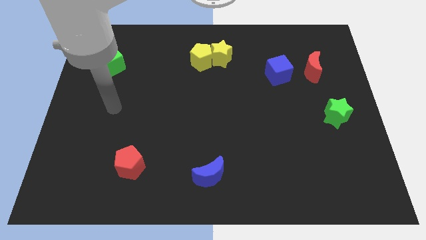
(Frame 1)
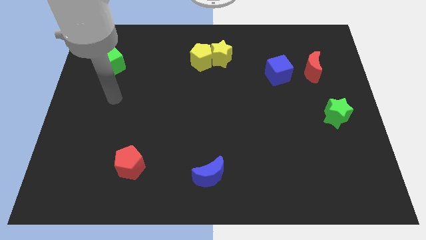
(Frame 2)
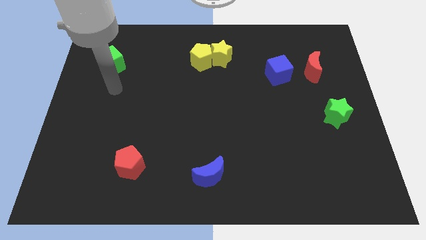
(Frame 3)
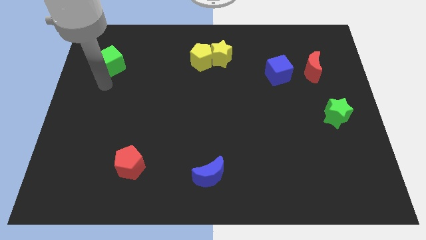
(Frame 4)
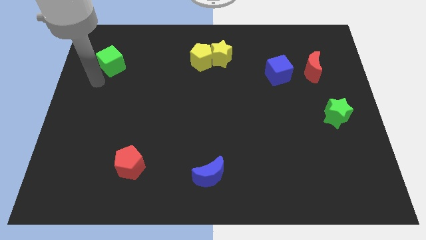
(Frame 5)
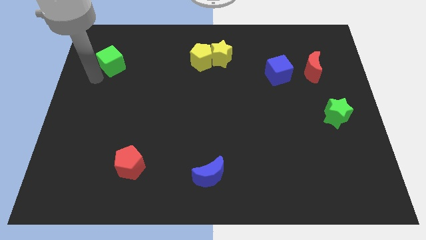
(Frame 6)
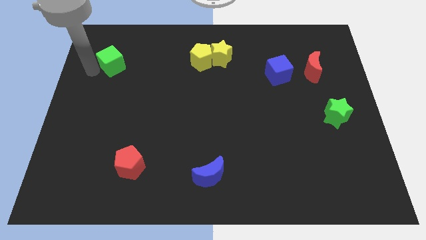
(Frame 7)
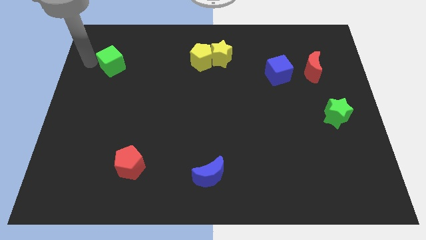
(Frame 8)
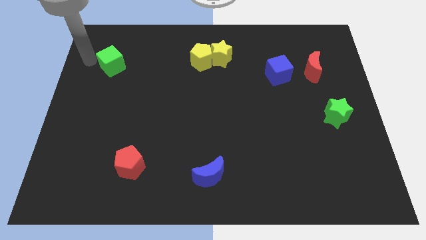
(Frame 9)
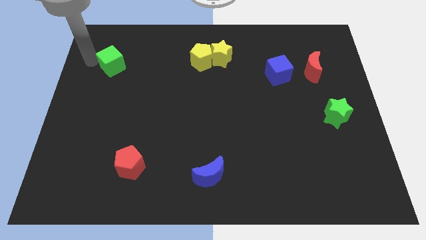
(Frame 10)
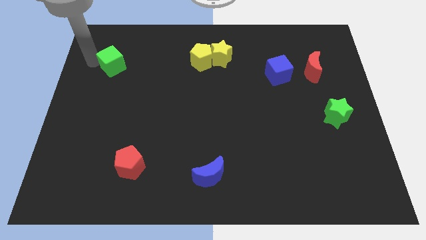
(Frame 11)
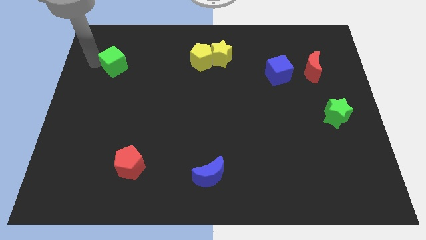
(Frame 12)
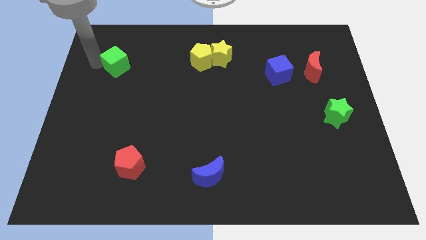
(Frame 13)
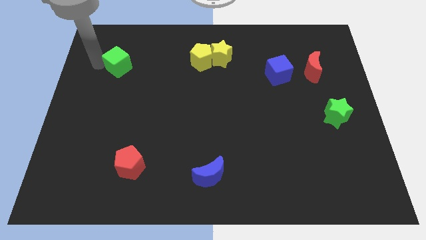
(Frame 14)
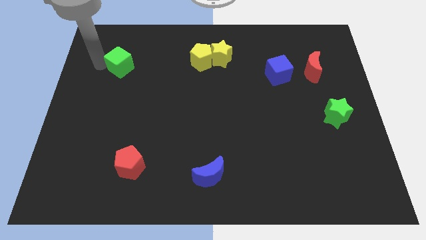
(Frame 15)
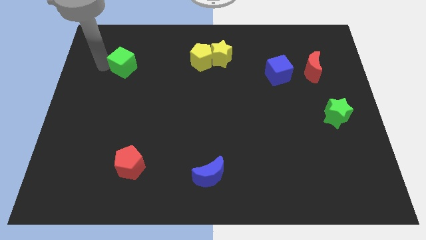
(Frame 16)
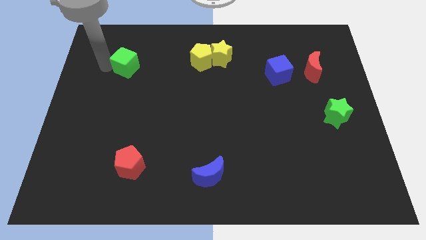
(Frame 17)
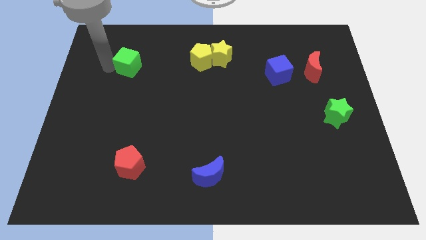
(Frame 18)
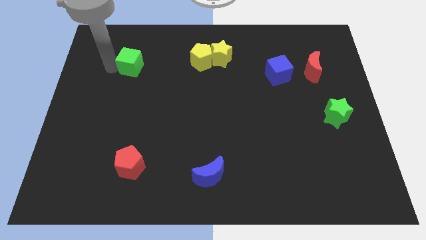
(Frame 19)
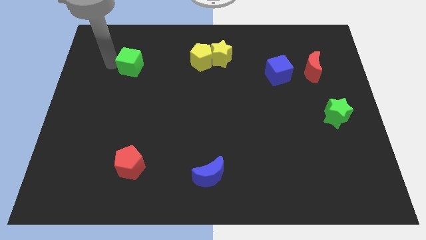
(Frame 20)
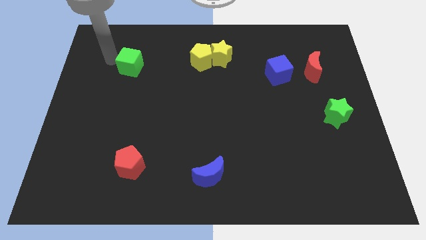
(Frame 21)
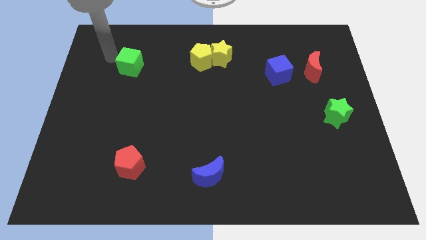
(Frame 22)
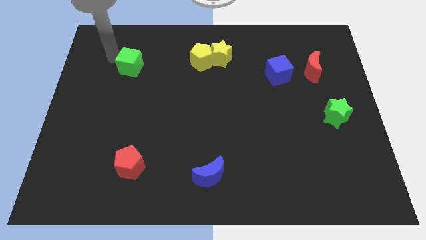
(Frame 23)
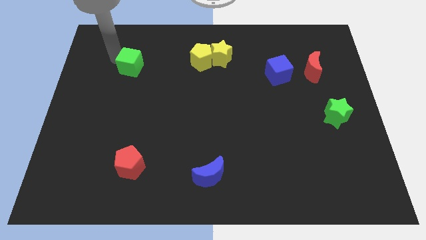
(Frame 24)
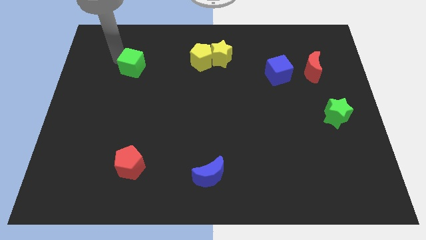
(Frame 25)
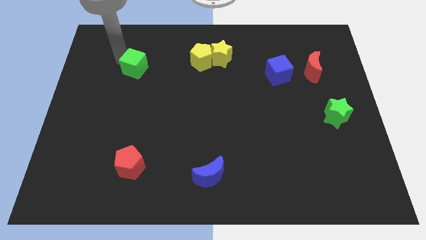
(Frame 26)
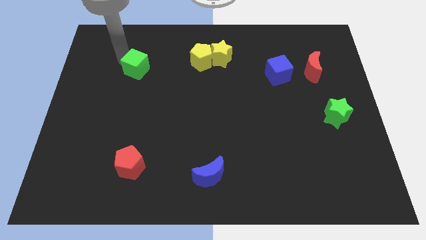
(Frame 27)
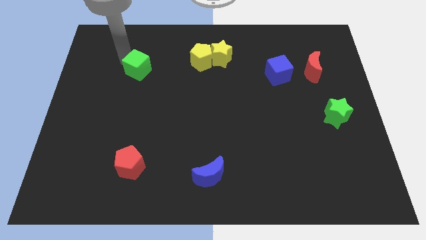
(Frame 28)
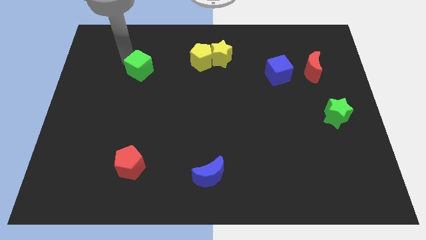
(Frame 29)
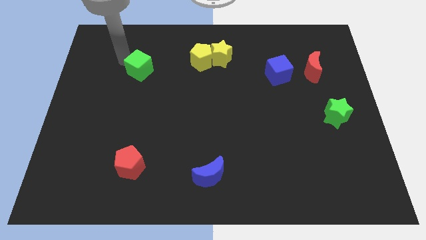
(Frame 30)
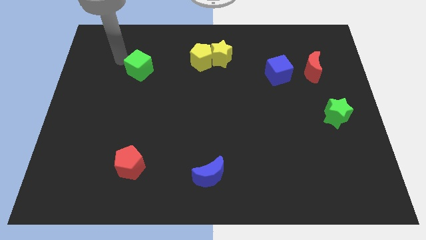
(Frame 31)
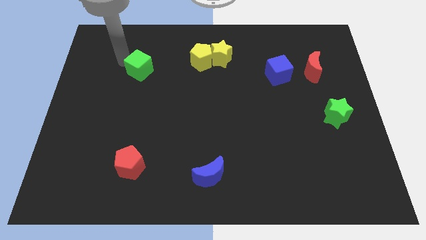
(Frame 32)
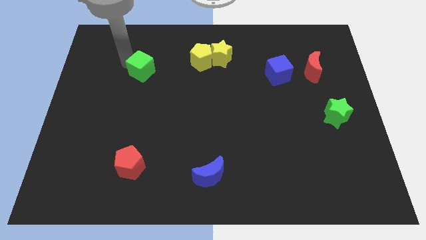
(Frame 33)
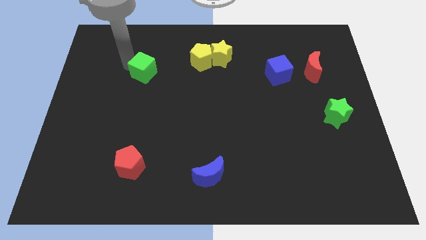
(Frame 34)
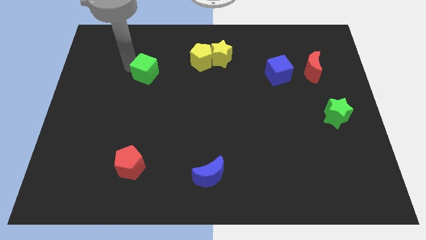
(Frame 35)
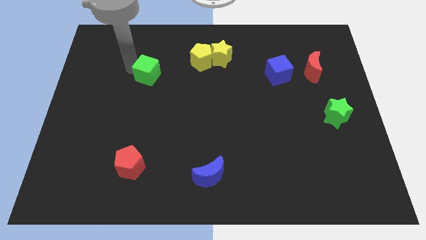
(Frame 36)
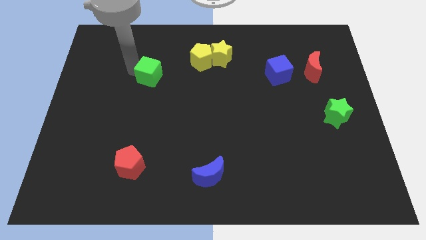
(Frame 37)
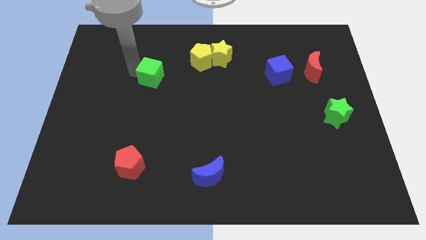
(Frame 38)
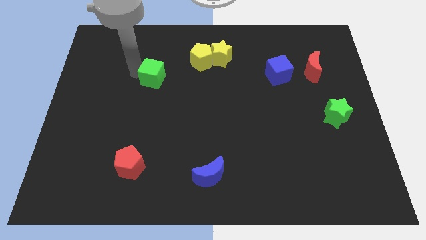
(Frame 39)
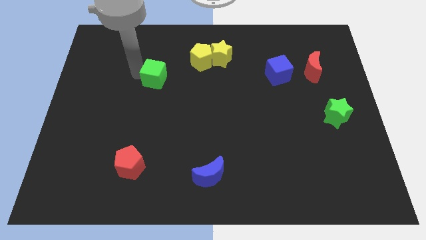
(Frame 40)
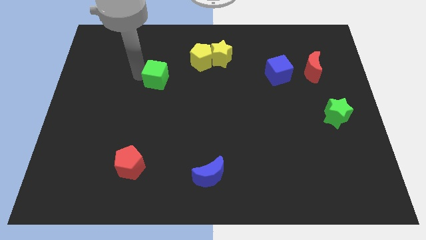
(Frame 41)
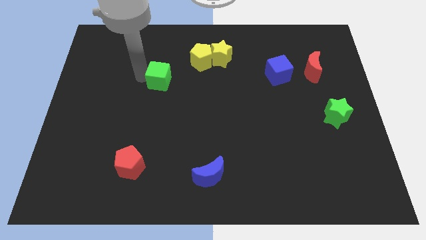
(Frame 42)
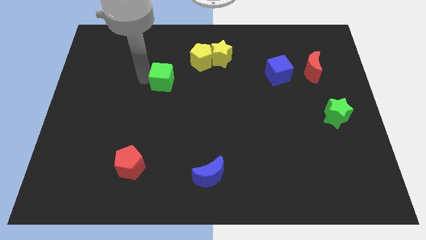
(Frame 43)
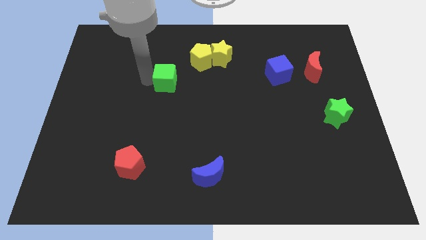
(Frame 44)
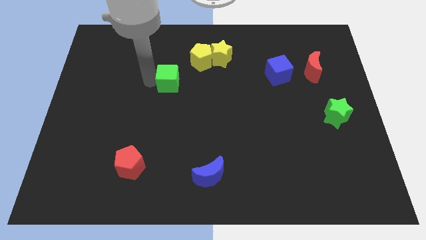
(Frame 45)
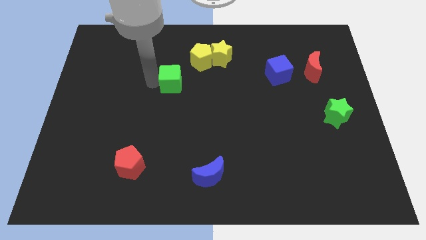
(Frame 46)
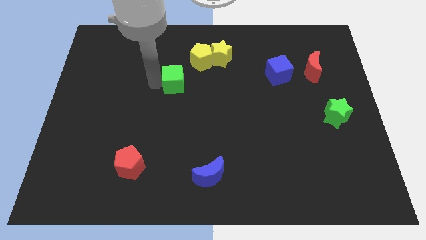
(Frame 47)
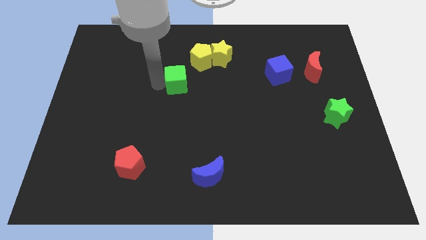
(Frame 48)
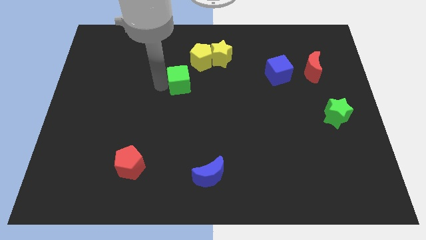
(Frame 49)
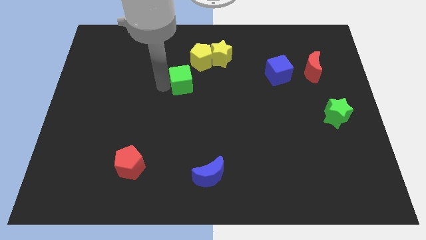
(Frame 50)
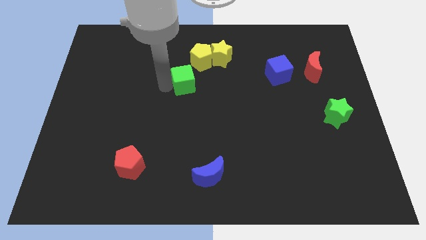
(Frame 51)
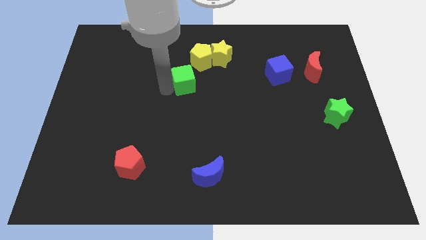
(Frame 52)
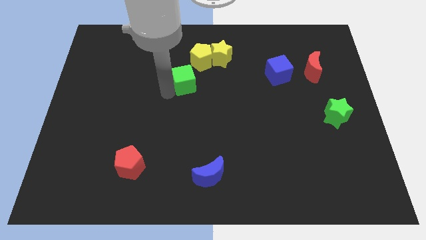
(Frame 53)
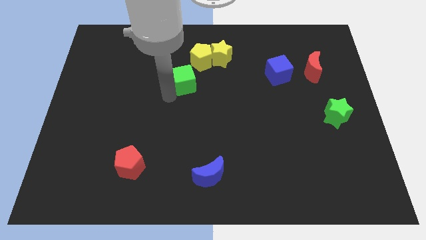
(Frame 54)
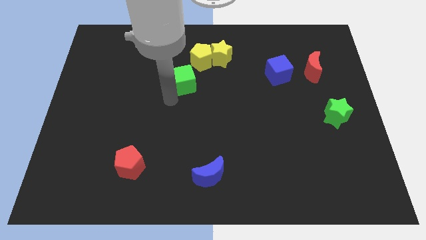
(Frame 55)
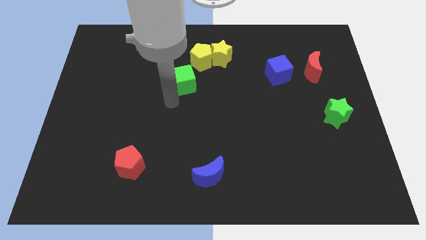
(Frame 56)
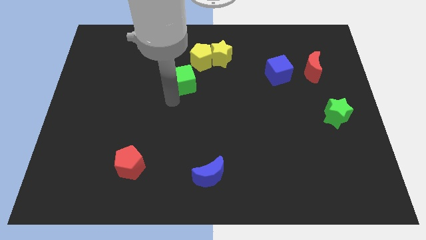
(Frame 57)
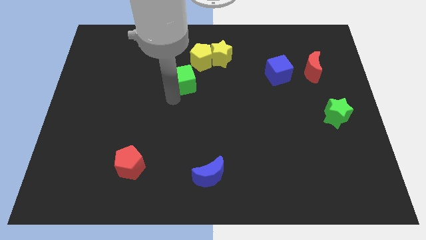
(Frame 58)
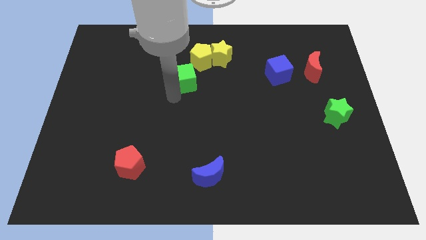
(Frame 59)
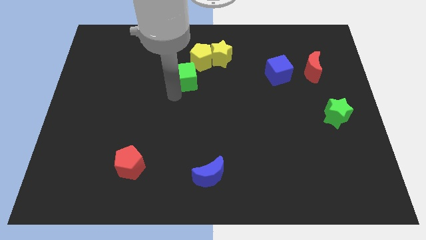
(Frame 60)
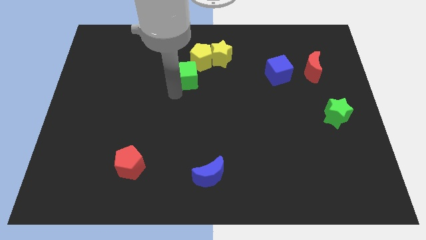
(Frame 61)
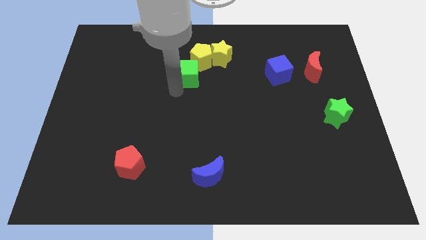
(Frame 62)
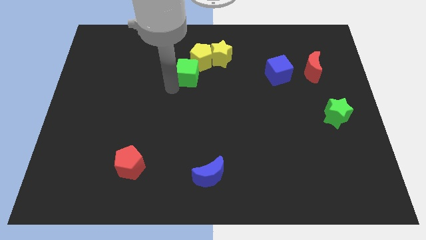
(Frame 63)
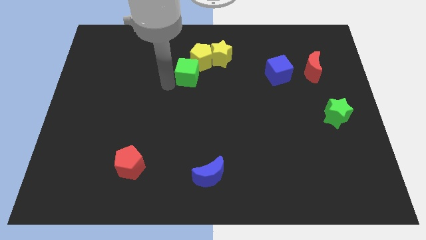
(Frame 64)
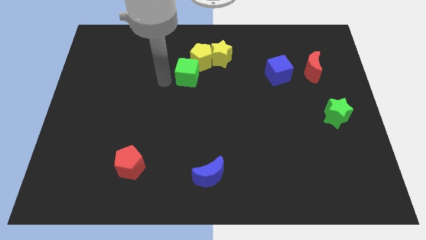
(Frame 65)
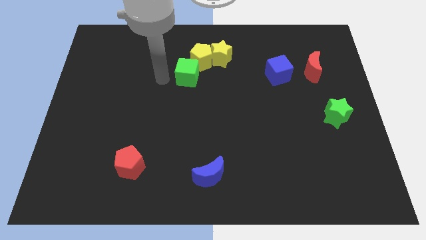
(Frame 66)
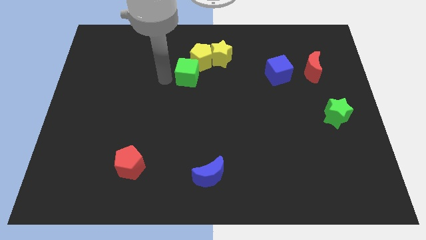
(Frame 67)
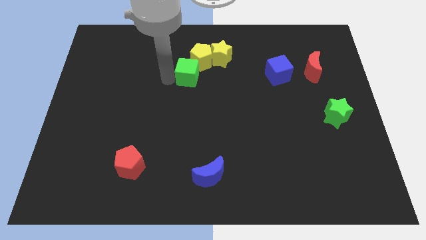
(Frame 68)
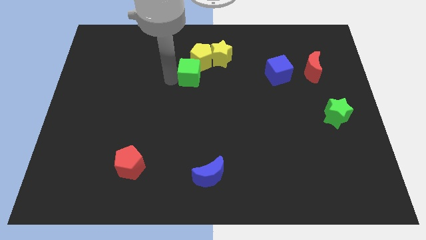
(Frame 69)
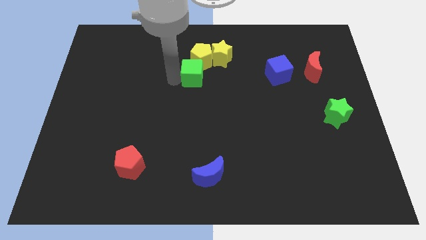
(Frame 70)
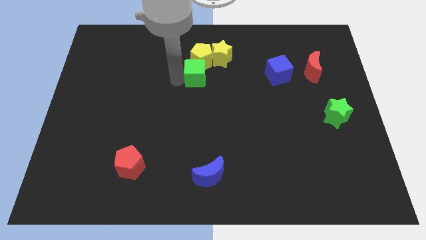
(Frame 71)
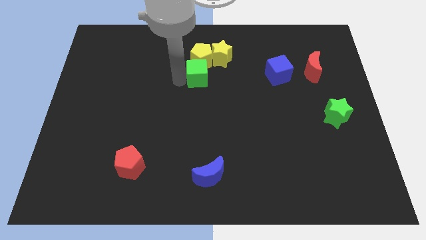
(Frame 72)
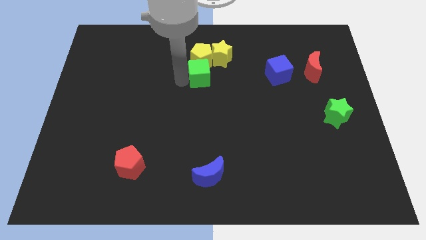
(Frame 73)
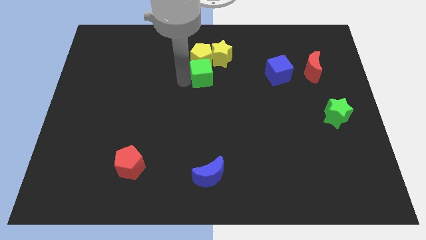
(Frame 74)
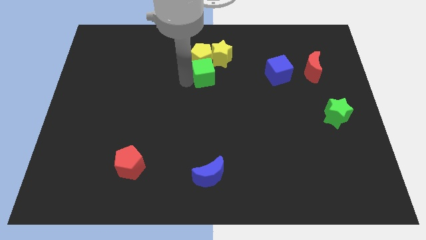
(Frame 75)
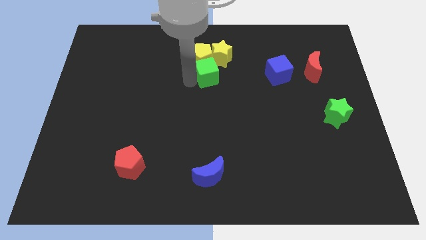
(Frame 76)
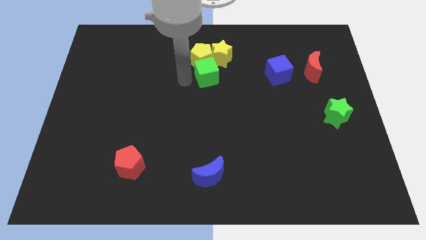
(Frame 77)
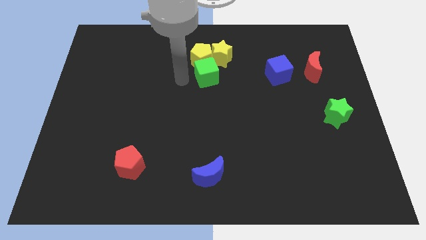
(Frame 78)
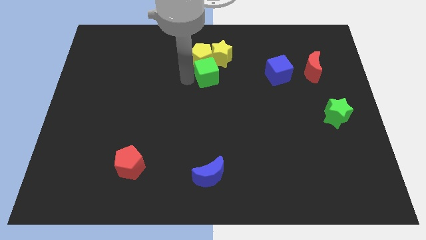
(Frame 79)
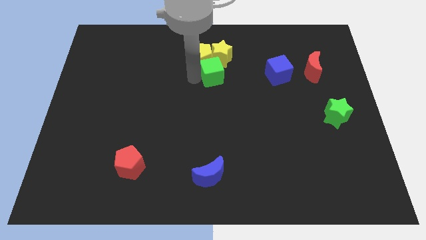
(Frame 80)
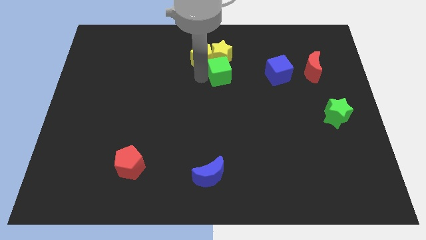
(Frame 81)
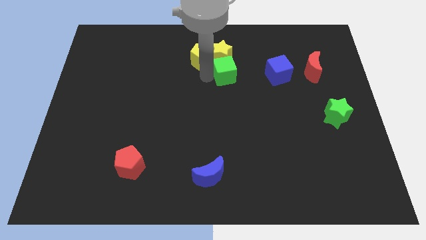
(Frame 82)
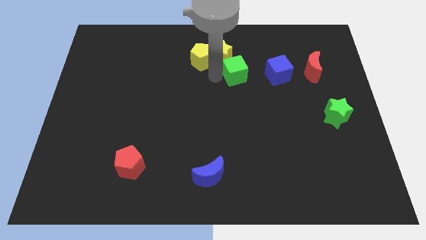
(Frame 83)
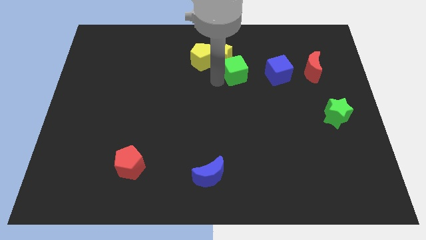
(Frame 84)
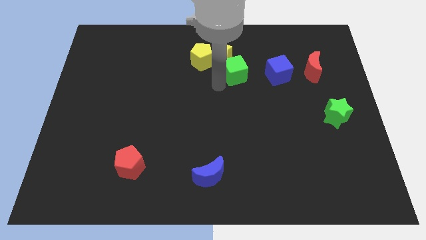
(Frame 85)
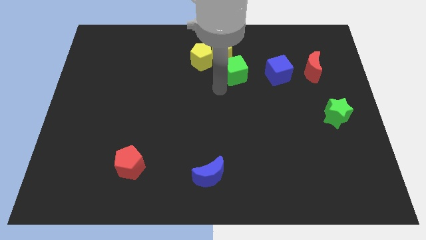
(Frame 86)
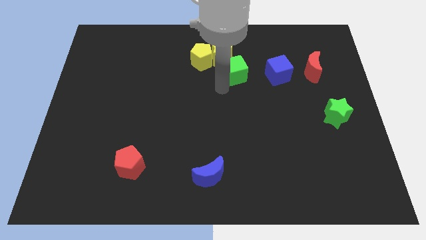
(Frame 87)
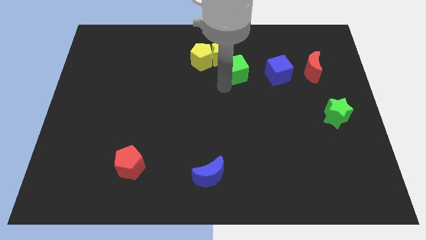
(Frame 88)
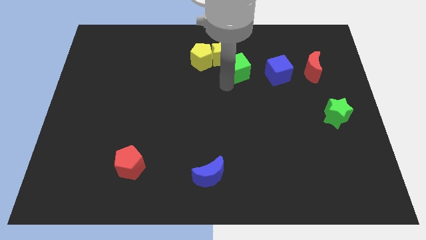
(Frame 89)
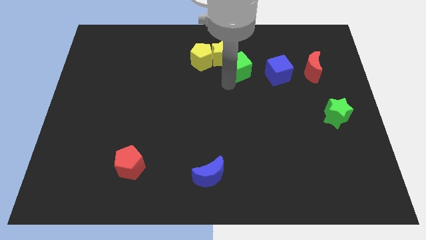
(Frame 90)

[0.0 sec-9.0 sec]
slide the green cube to the right of the yellow star
